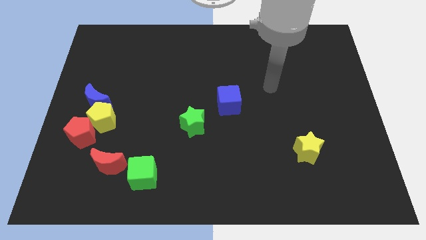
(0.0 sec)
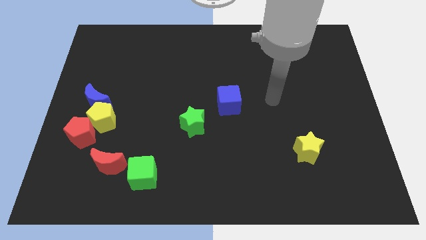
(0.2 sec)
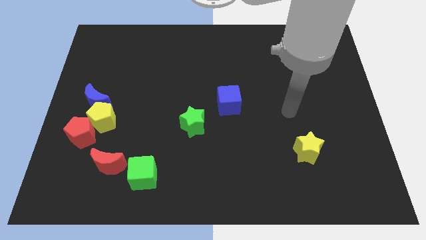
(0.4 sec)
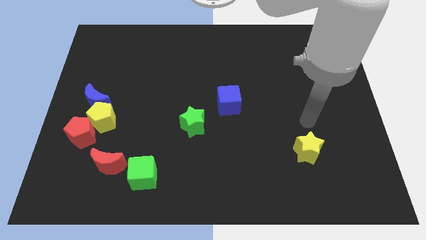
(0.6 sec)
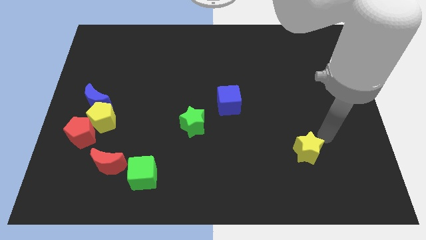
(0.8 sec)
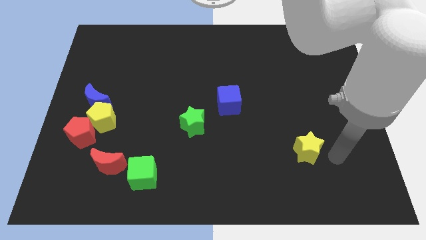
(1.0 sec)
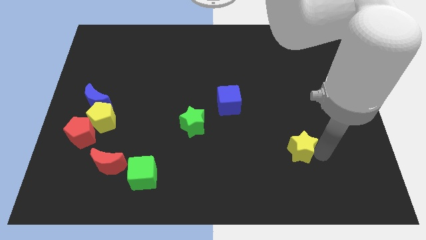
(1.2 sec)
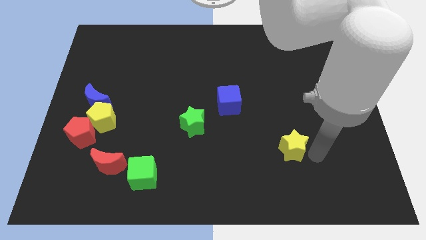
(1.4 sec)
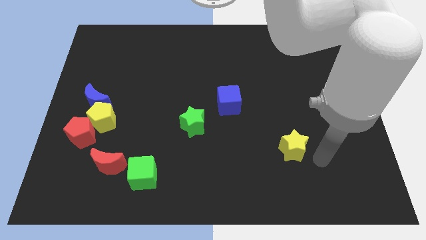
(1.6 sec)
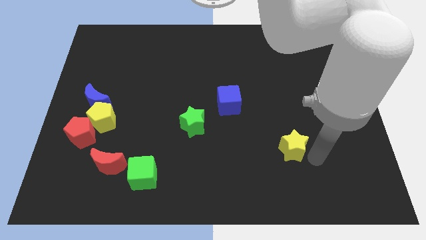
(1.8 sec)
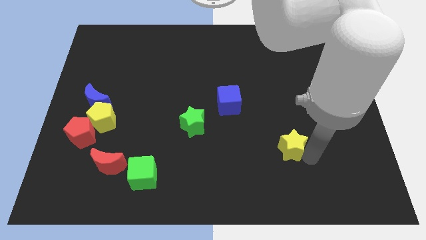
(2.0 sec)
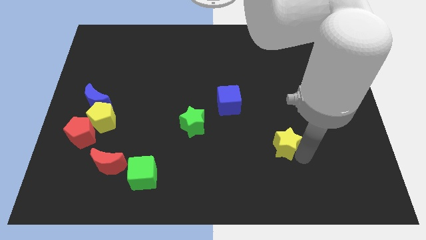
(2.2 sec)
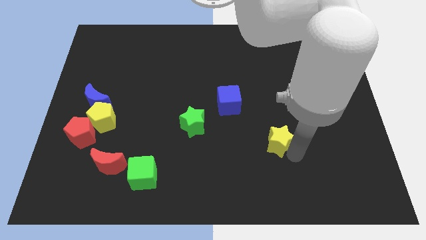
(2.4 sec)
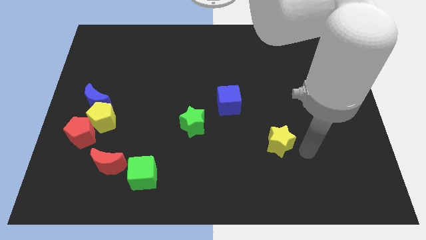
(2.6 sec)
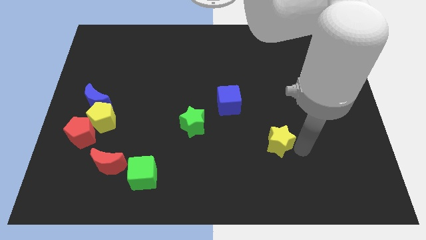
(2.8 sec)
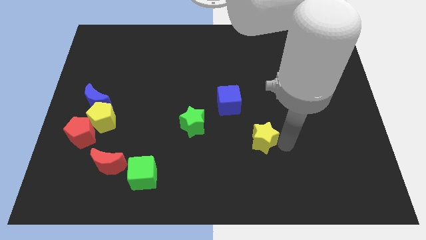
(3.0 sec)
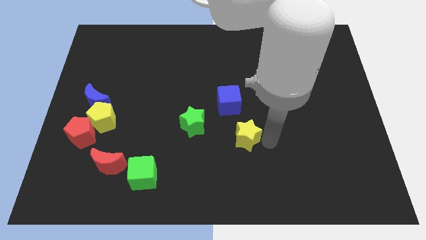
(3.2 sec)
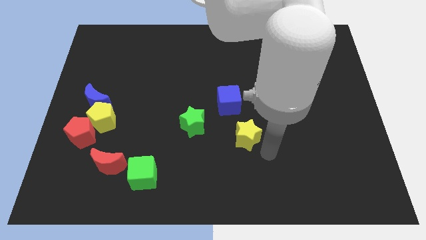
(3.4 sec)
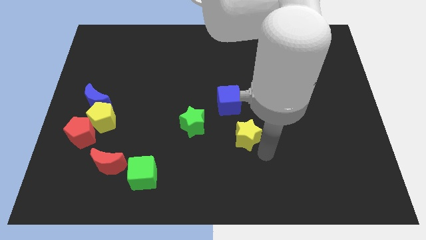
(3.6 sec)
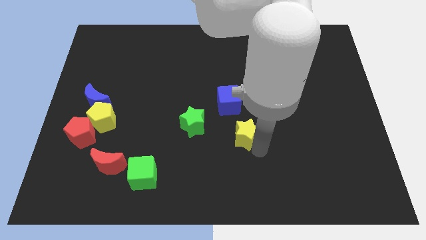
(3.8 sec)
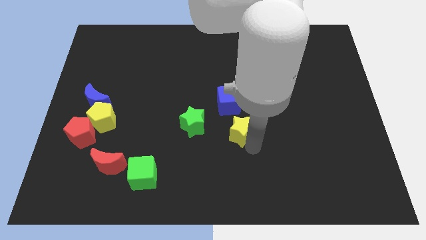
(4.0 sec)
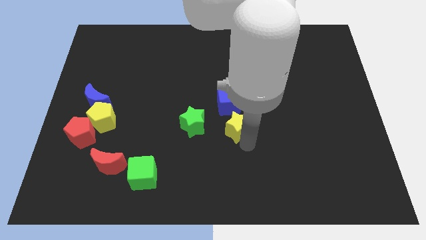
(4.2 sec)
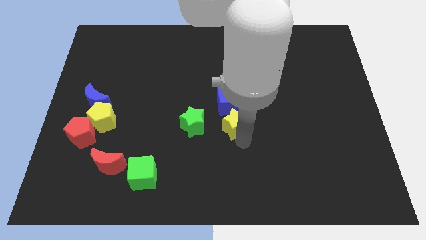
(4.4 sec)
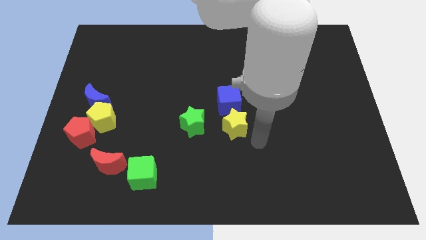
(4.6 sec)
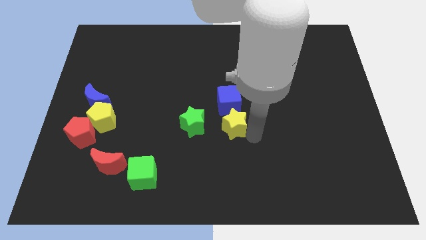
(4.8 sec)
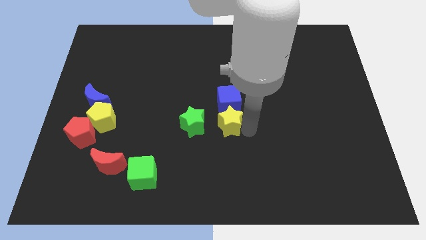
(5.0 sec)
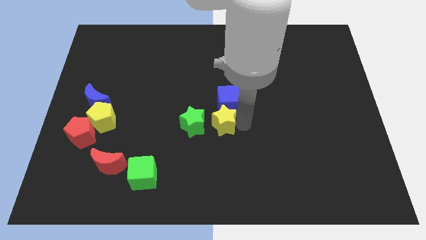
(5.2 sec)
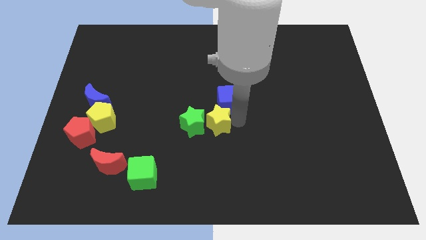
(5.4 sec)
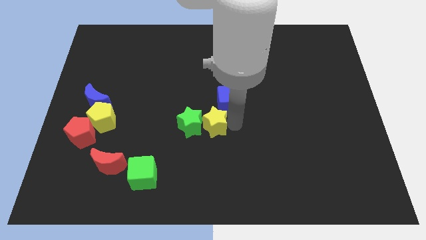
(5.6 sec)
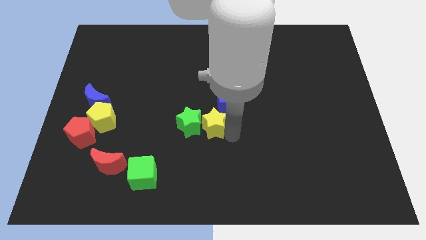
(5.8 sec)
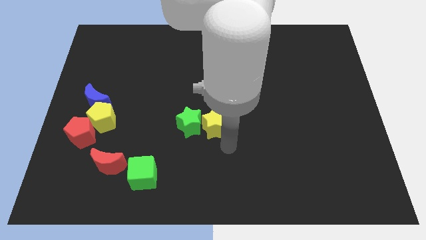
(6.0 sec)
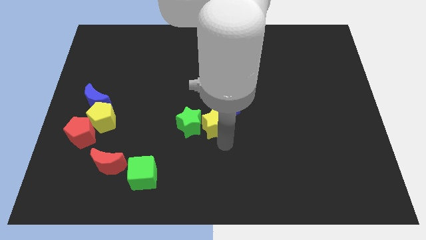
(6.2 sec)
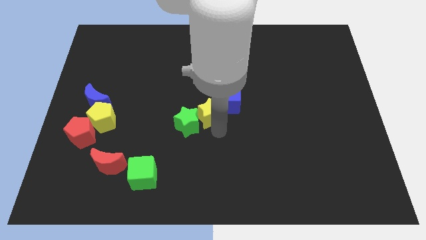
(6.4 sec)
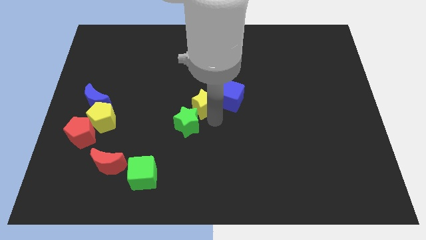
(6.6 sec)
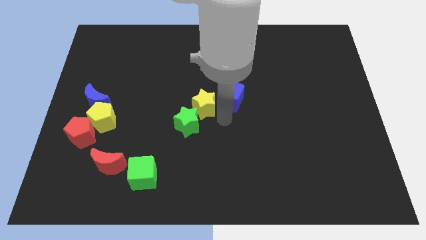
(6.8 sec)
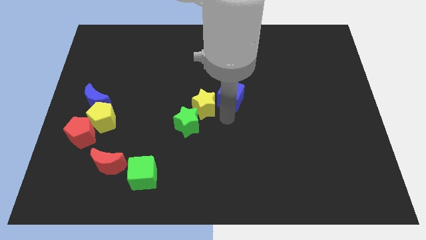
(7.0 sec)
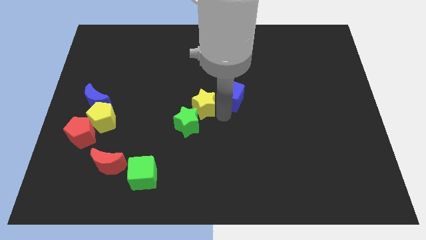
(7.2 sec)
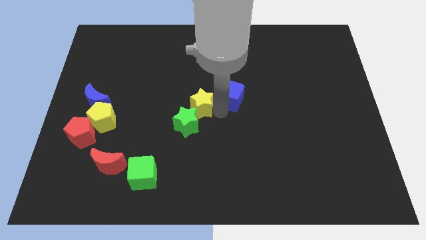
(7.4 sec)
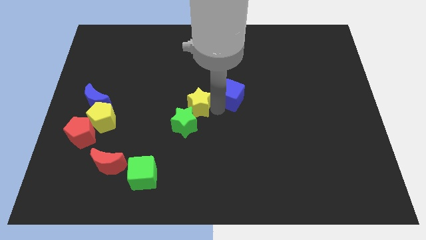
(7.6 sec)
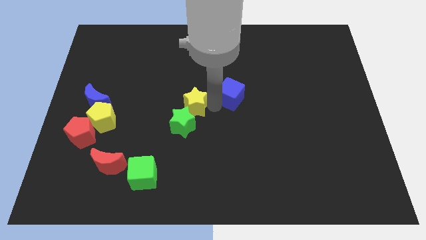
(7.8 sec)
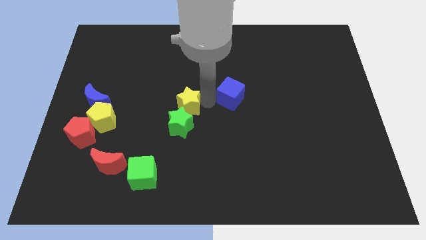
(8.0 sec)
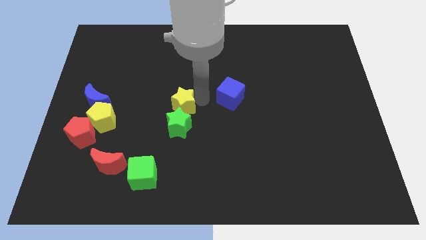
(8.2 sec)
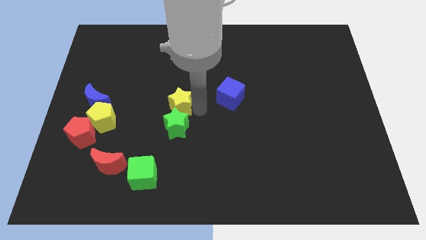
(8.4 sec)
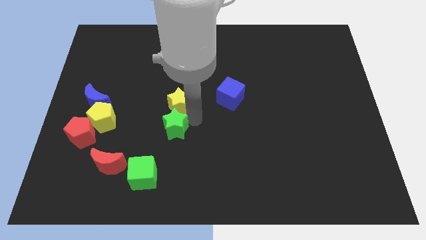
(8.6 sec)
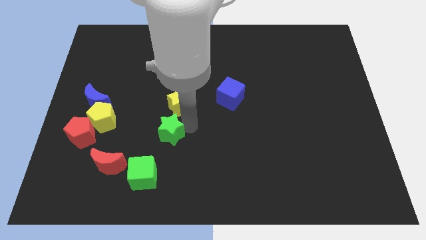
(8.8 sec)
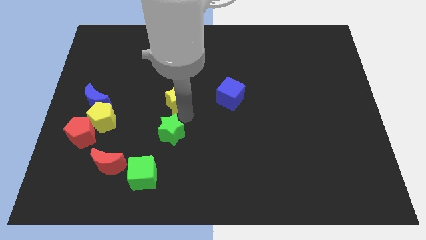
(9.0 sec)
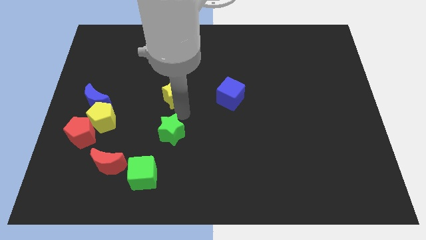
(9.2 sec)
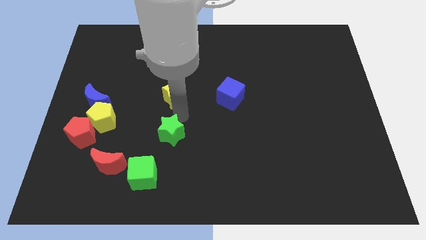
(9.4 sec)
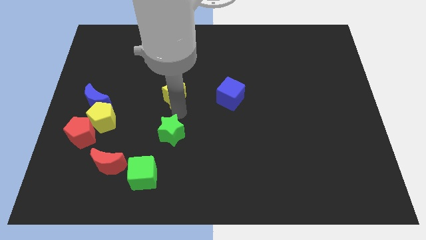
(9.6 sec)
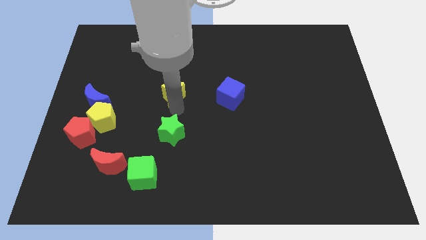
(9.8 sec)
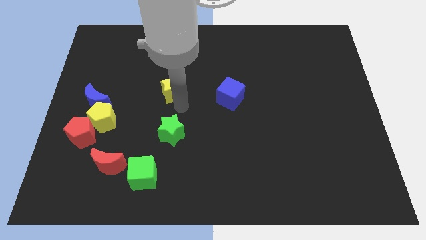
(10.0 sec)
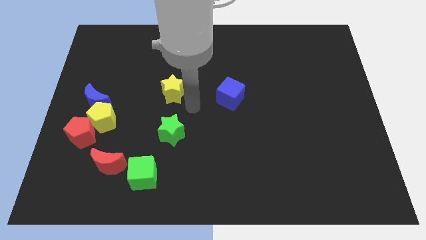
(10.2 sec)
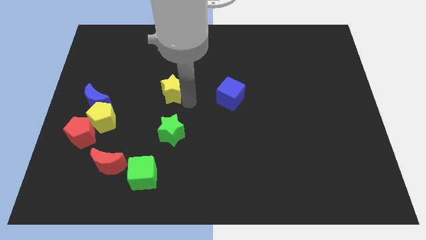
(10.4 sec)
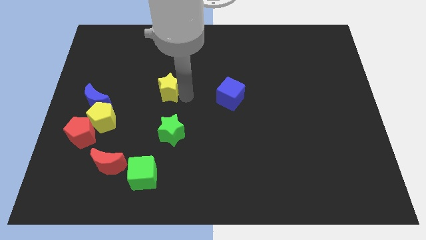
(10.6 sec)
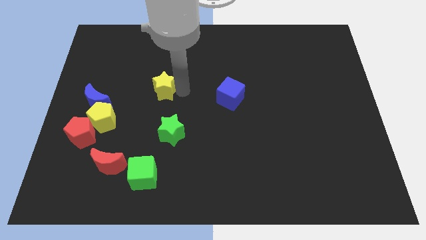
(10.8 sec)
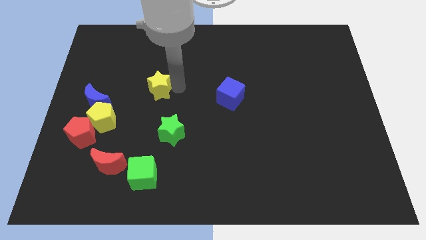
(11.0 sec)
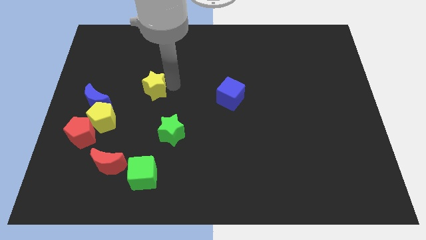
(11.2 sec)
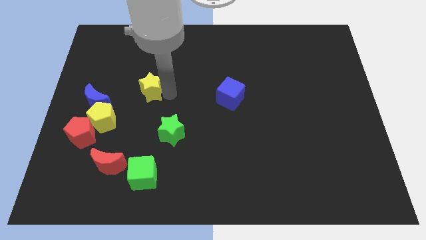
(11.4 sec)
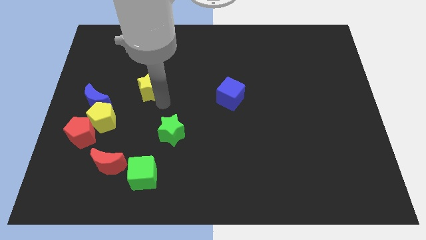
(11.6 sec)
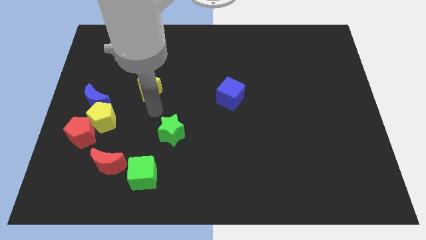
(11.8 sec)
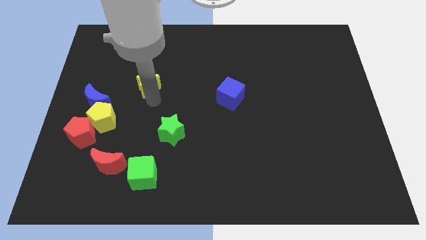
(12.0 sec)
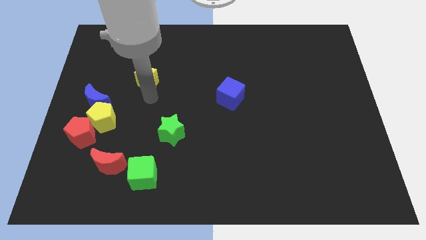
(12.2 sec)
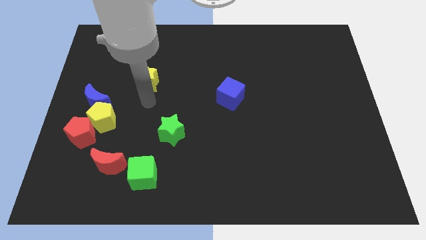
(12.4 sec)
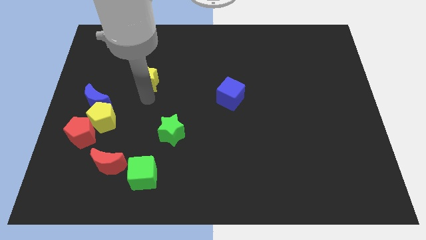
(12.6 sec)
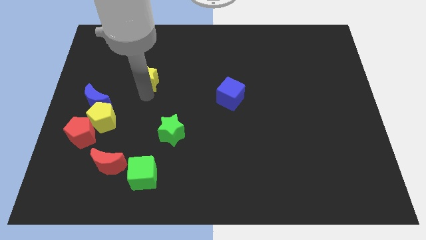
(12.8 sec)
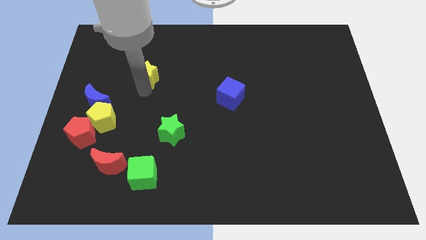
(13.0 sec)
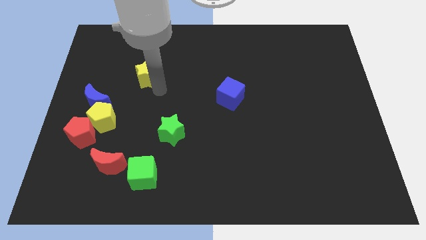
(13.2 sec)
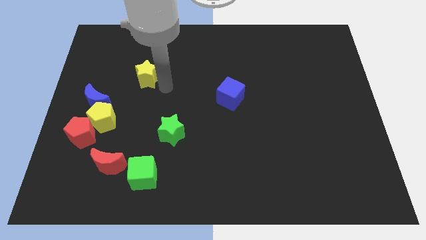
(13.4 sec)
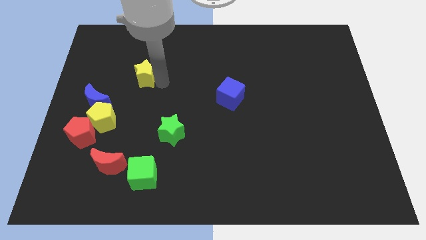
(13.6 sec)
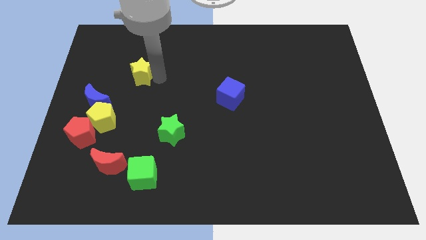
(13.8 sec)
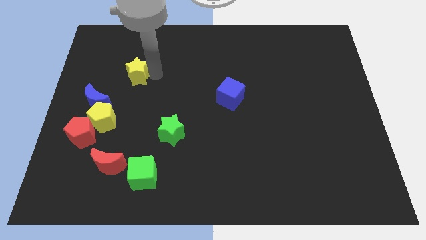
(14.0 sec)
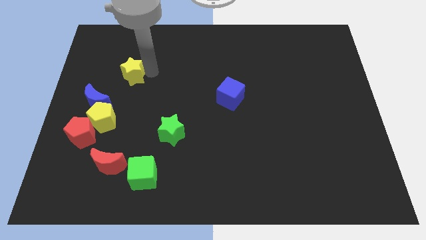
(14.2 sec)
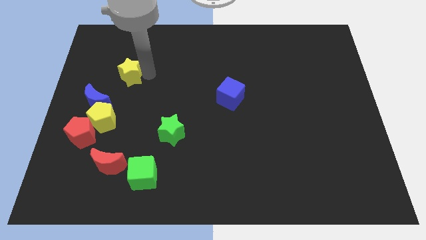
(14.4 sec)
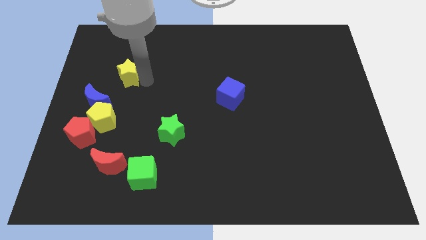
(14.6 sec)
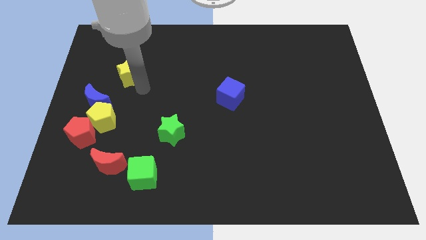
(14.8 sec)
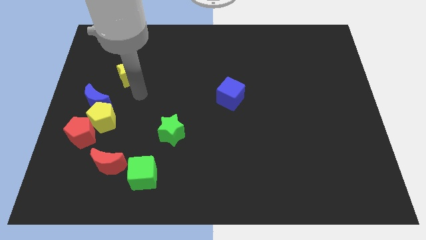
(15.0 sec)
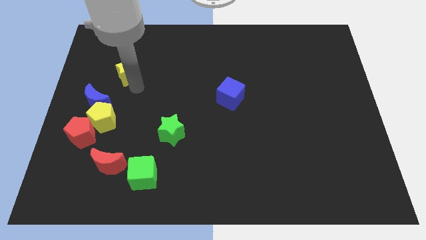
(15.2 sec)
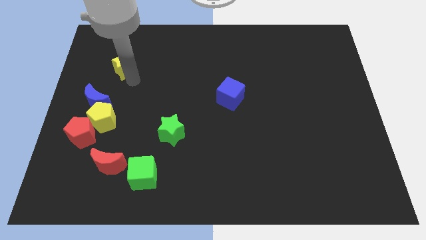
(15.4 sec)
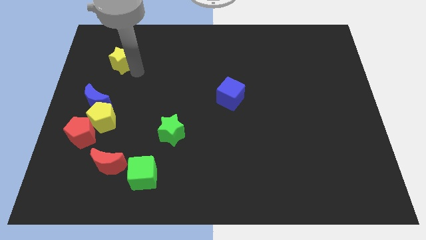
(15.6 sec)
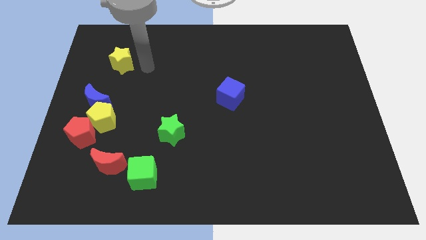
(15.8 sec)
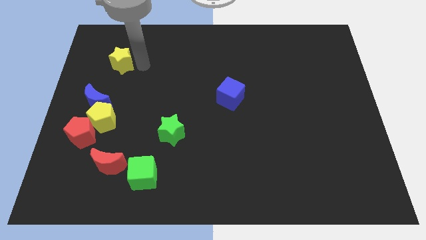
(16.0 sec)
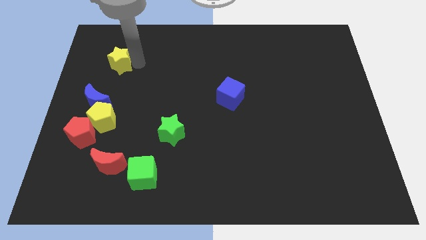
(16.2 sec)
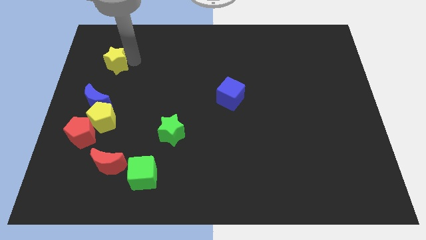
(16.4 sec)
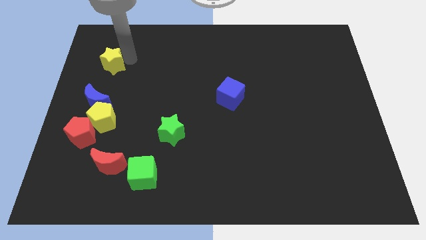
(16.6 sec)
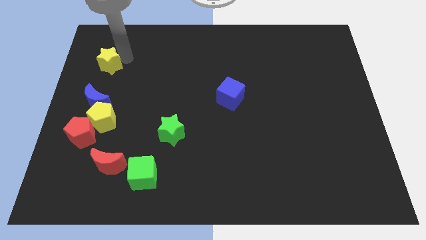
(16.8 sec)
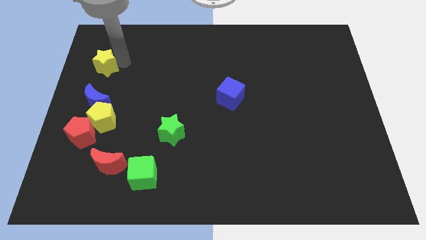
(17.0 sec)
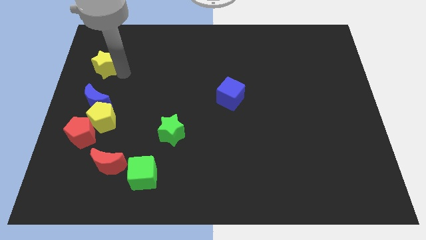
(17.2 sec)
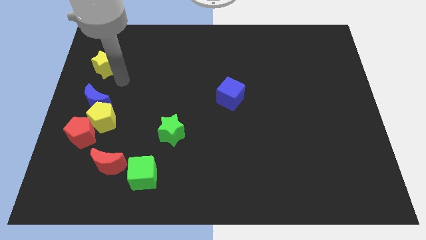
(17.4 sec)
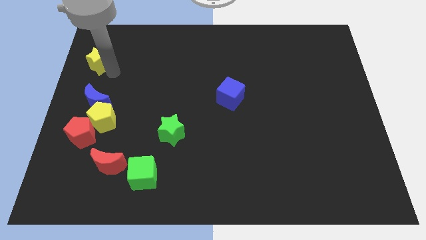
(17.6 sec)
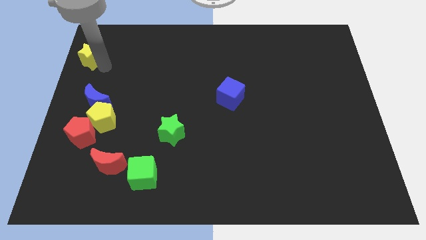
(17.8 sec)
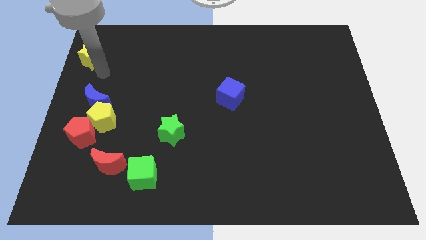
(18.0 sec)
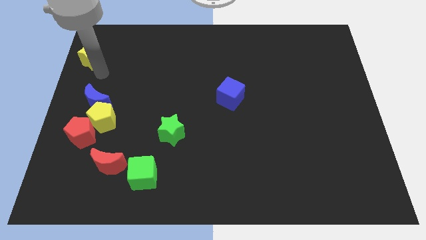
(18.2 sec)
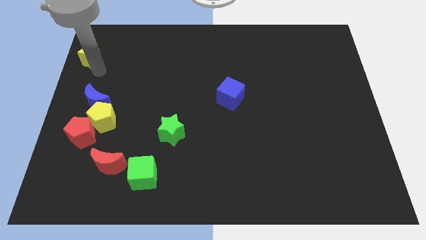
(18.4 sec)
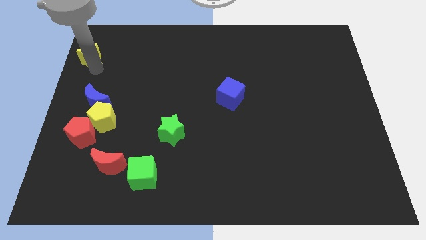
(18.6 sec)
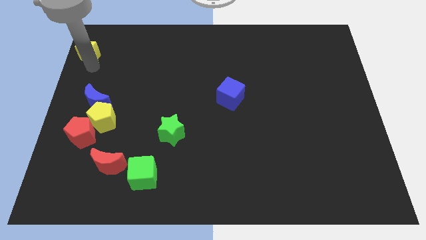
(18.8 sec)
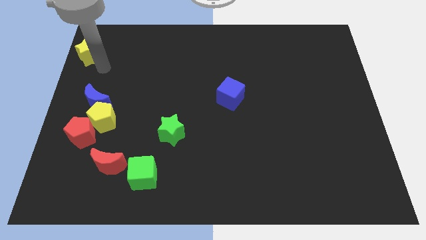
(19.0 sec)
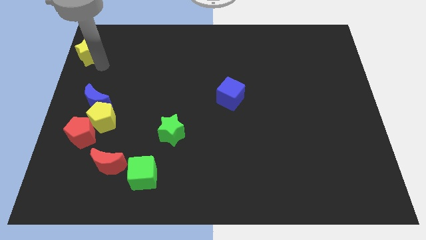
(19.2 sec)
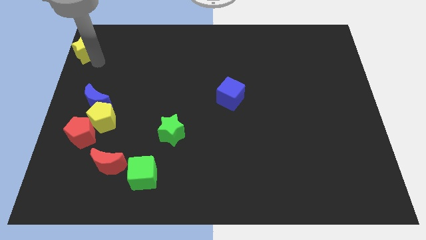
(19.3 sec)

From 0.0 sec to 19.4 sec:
slide the yellow star to the top left of the board
